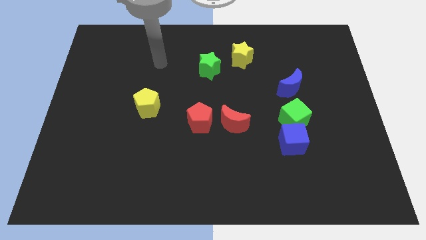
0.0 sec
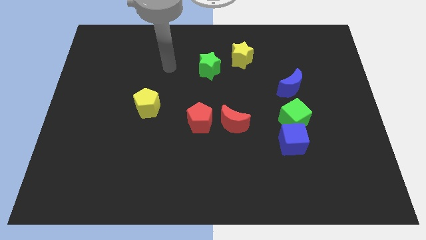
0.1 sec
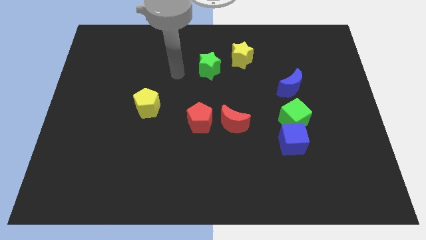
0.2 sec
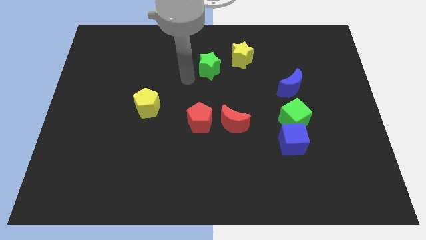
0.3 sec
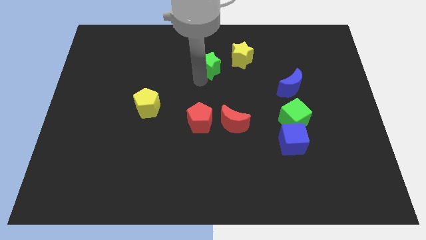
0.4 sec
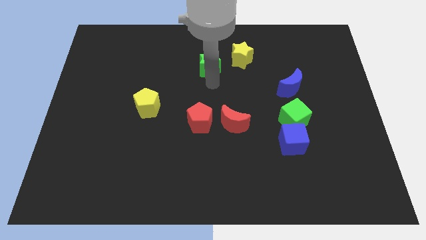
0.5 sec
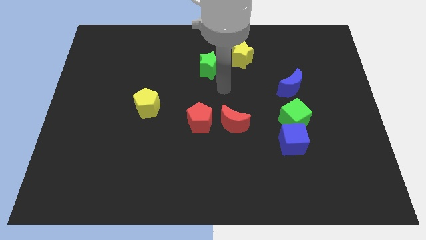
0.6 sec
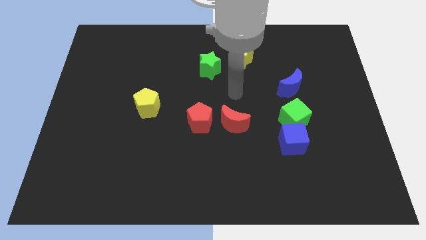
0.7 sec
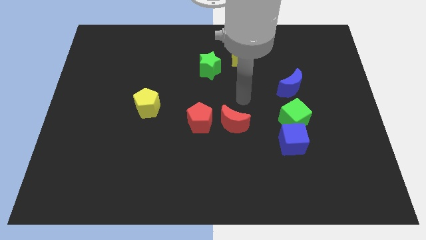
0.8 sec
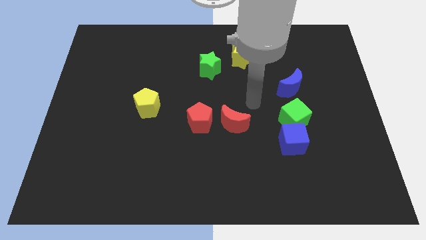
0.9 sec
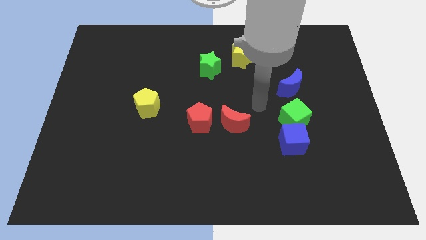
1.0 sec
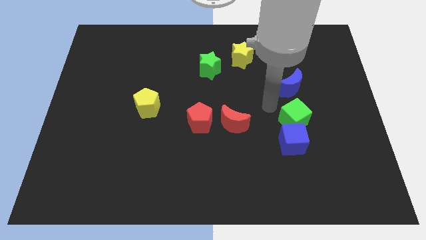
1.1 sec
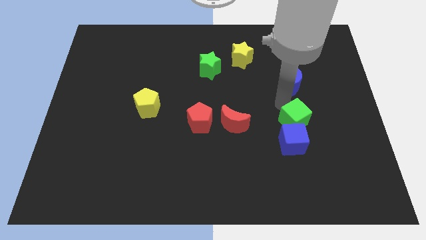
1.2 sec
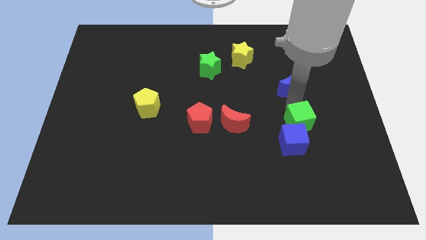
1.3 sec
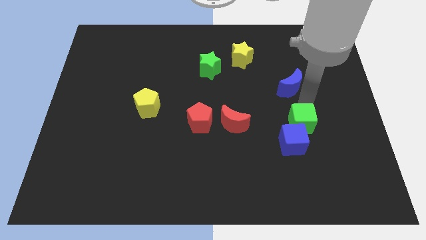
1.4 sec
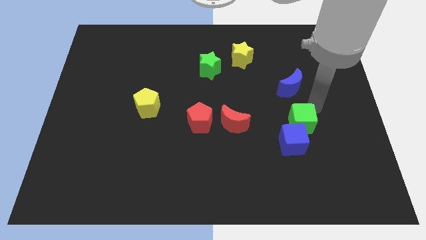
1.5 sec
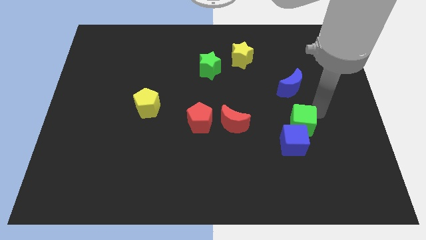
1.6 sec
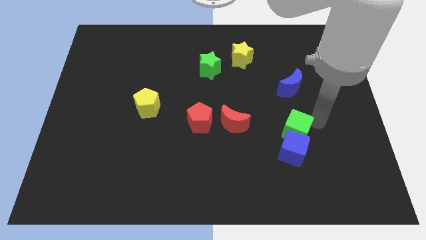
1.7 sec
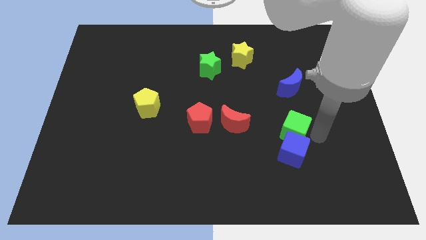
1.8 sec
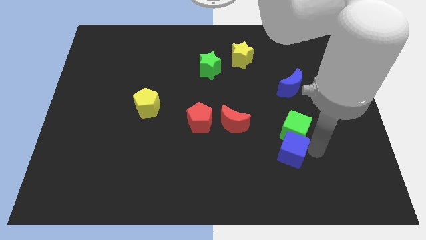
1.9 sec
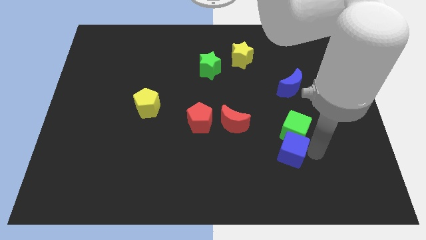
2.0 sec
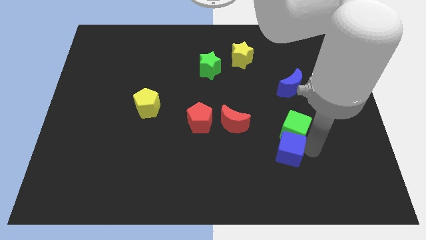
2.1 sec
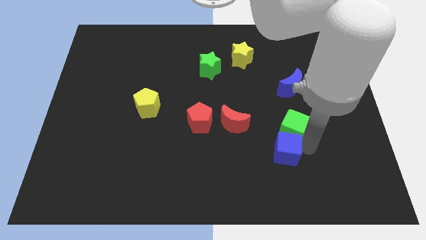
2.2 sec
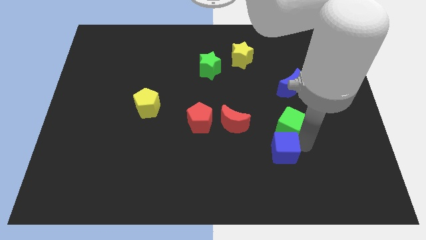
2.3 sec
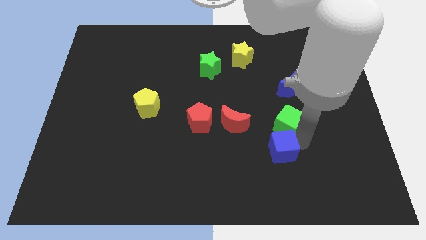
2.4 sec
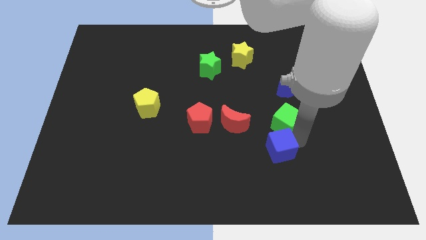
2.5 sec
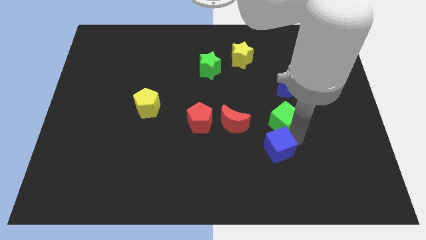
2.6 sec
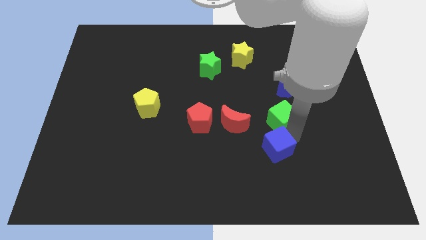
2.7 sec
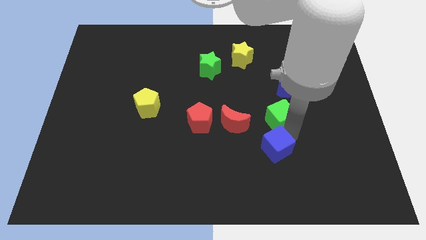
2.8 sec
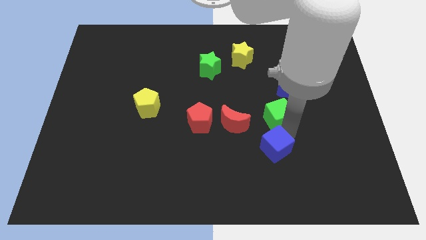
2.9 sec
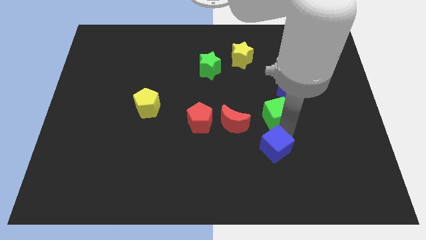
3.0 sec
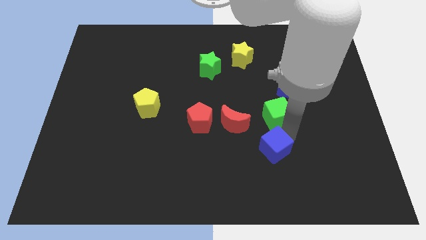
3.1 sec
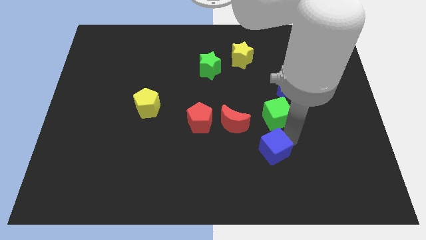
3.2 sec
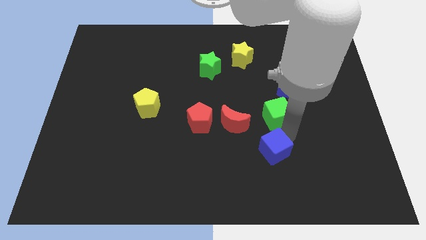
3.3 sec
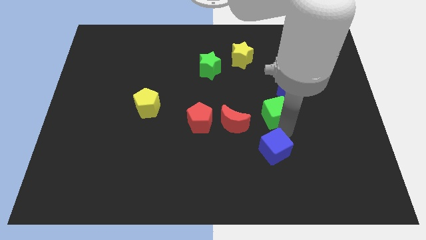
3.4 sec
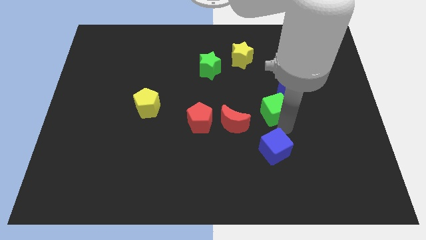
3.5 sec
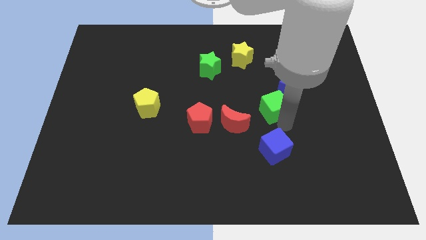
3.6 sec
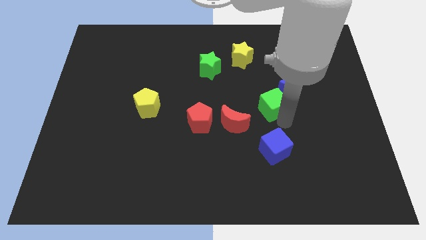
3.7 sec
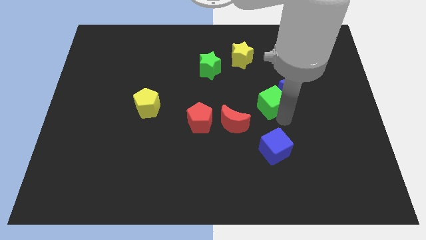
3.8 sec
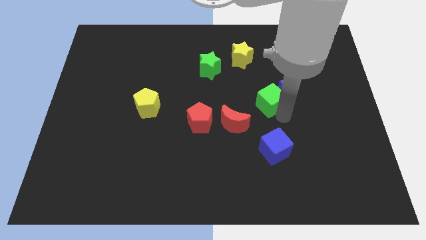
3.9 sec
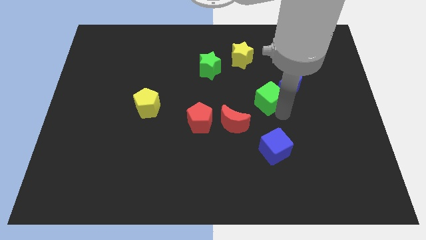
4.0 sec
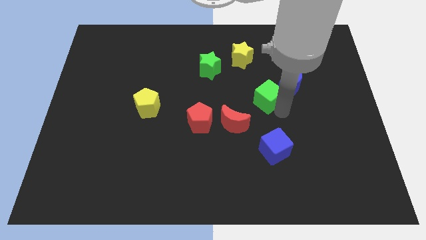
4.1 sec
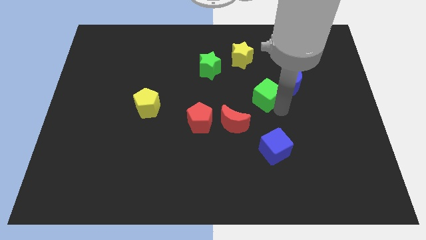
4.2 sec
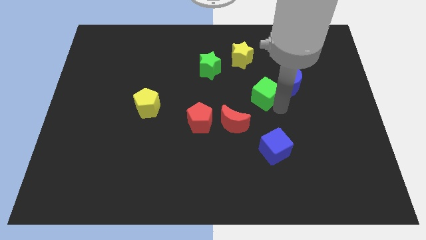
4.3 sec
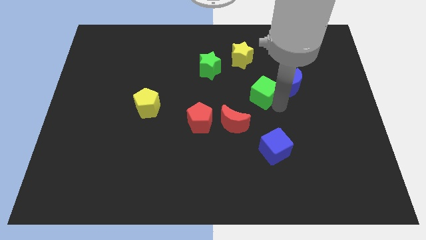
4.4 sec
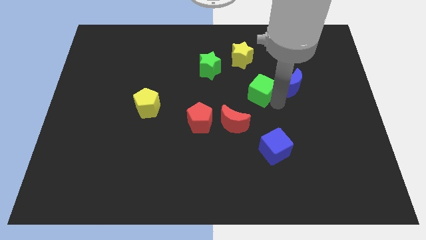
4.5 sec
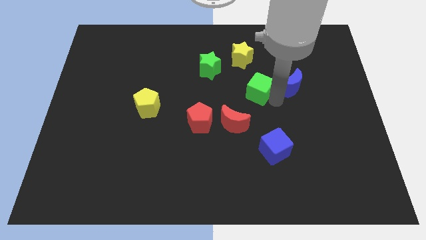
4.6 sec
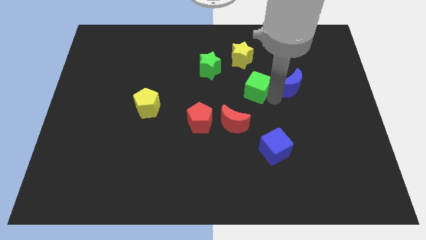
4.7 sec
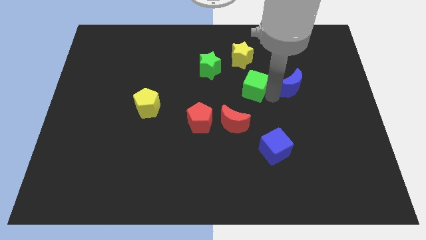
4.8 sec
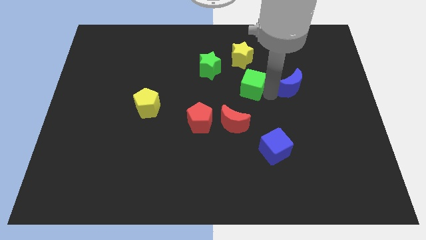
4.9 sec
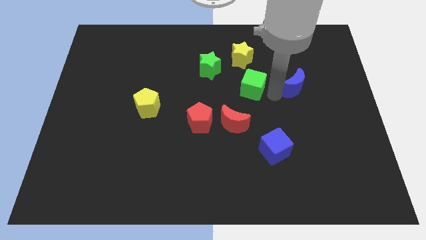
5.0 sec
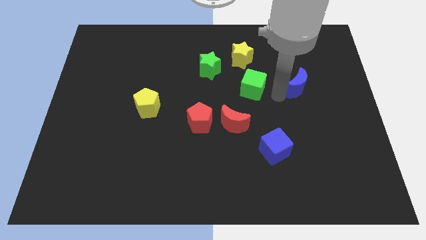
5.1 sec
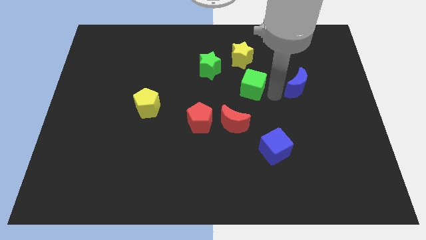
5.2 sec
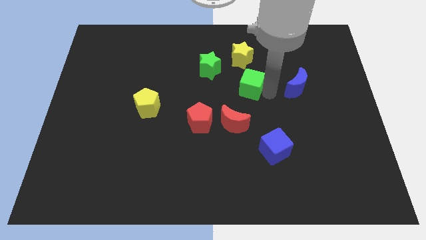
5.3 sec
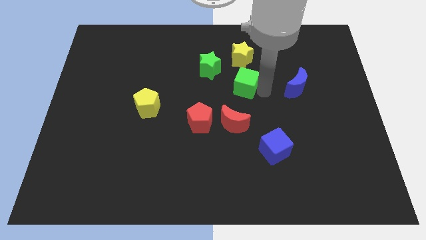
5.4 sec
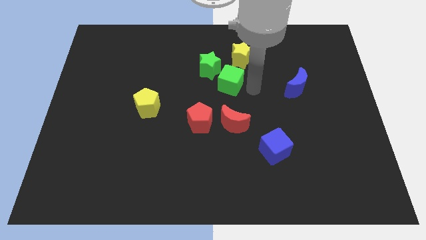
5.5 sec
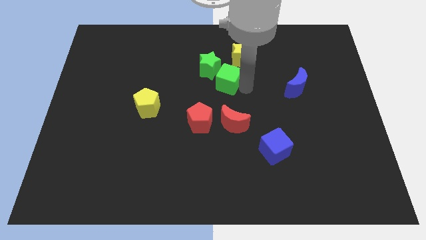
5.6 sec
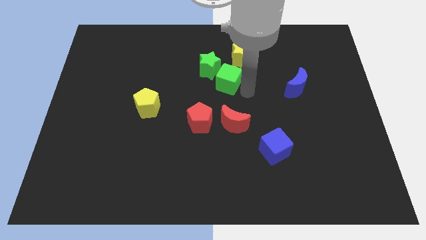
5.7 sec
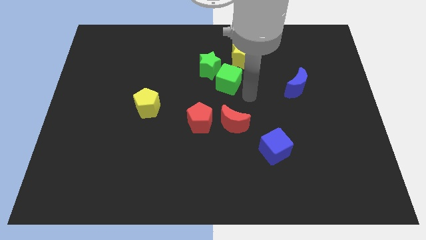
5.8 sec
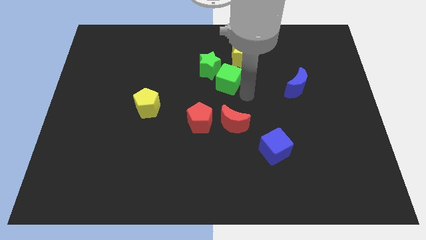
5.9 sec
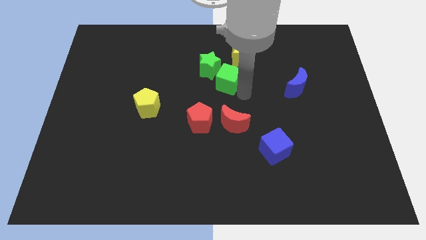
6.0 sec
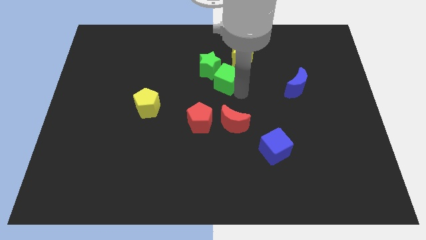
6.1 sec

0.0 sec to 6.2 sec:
slide the green cube close to the green star
